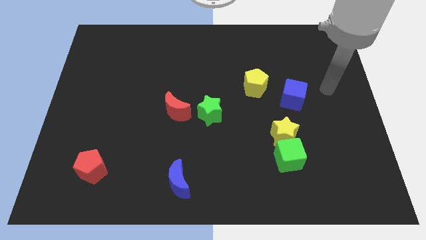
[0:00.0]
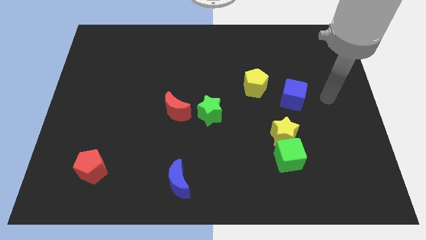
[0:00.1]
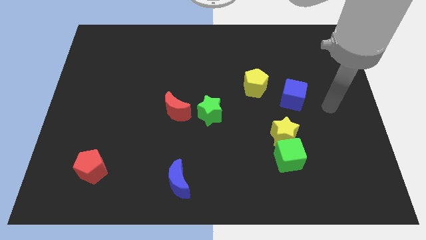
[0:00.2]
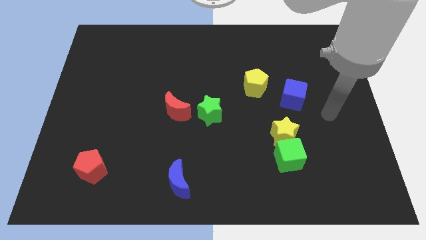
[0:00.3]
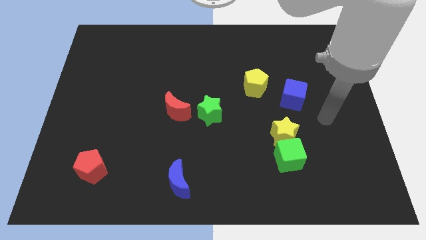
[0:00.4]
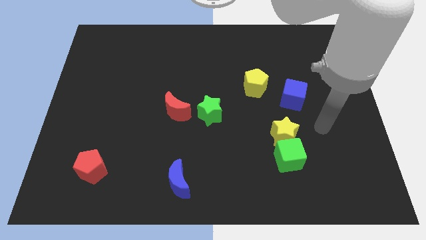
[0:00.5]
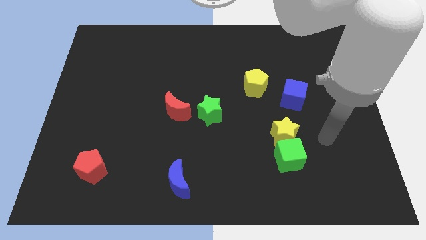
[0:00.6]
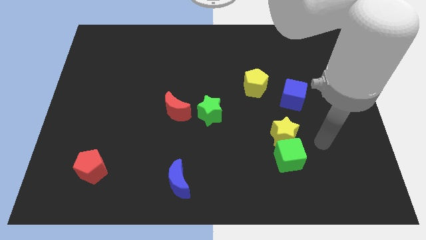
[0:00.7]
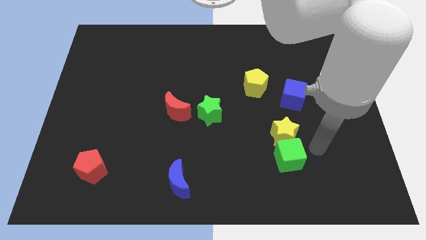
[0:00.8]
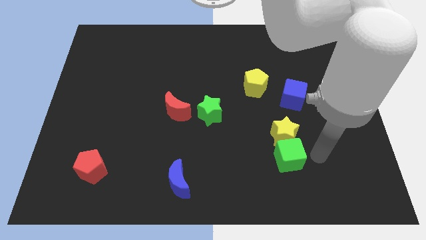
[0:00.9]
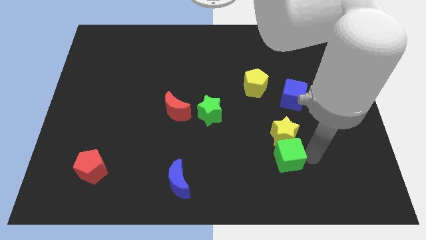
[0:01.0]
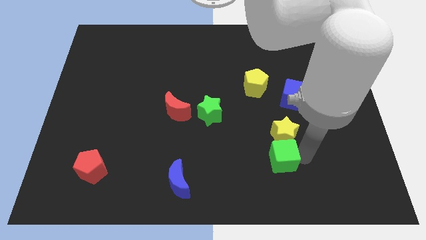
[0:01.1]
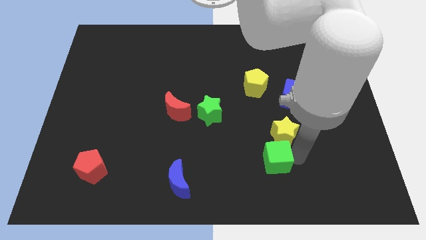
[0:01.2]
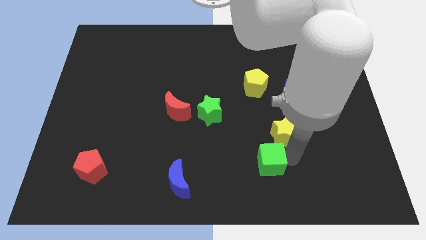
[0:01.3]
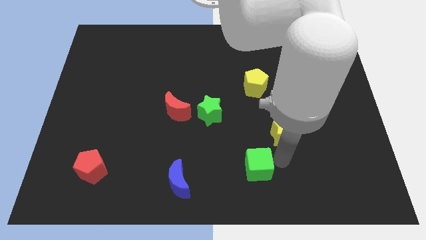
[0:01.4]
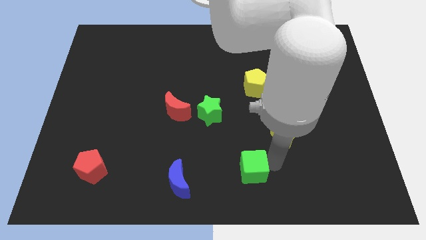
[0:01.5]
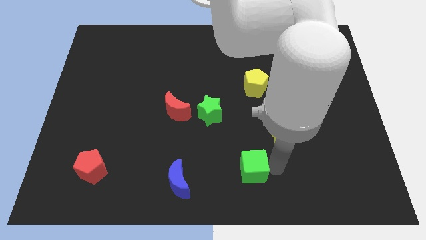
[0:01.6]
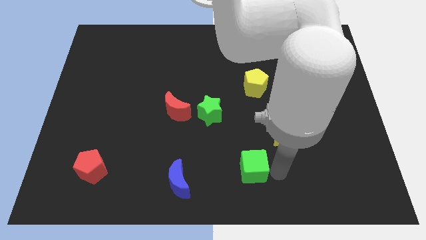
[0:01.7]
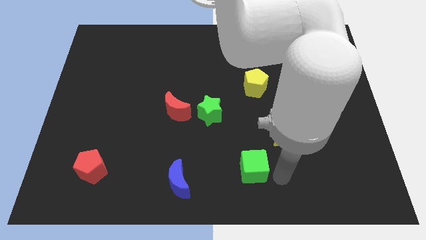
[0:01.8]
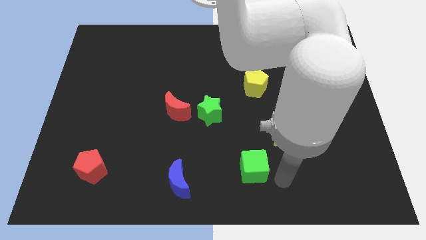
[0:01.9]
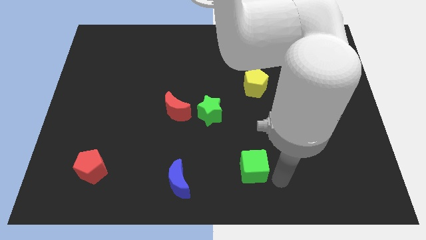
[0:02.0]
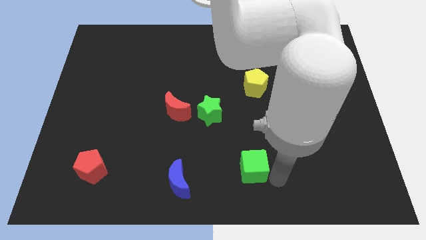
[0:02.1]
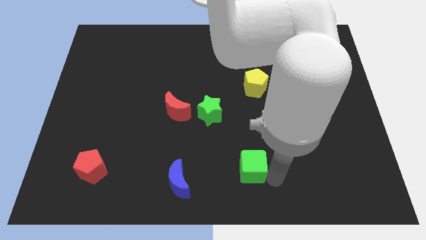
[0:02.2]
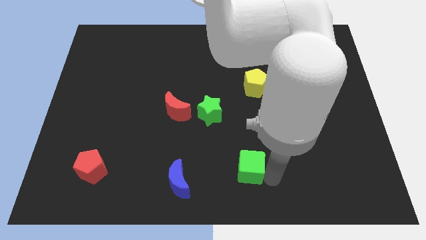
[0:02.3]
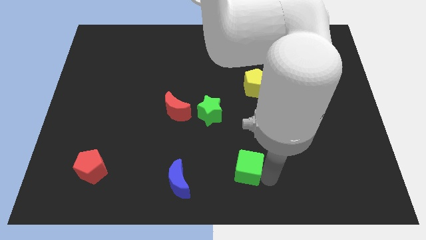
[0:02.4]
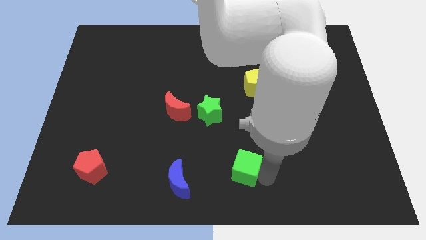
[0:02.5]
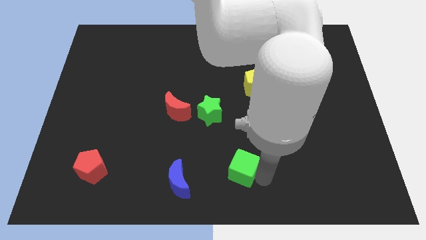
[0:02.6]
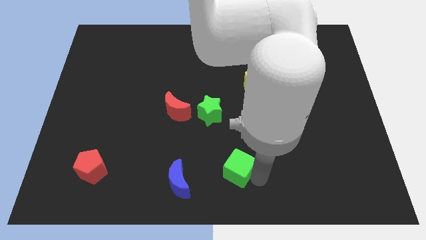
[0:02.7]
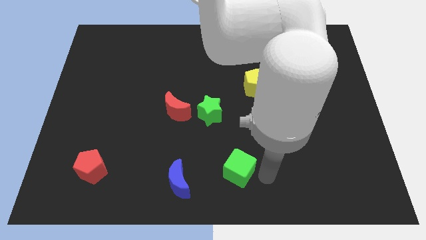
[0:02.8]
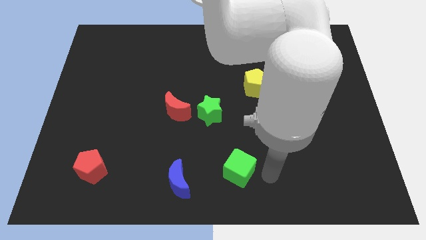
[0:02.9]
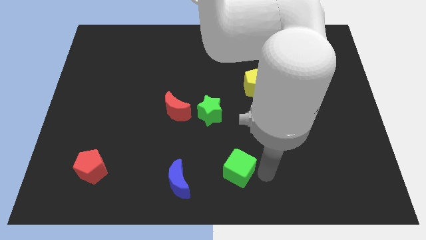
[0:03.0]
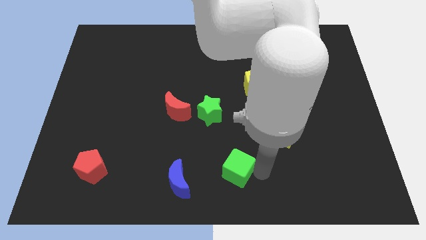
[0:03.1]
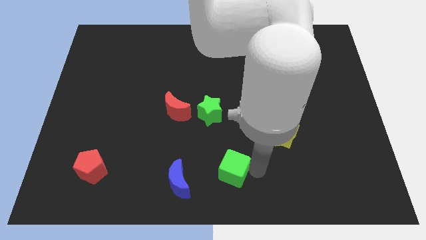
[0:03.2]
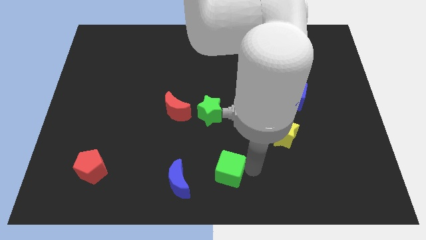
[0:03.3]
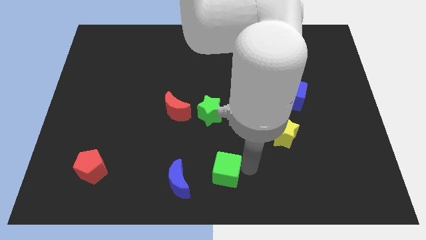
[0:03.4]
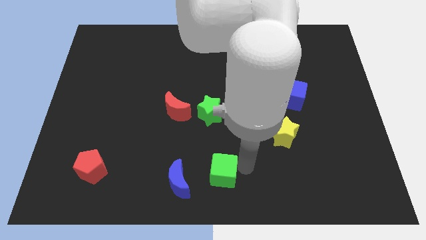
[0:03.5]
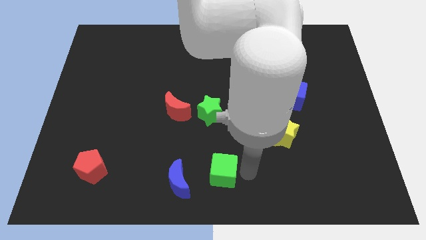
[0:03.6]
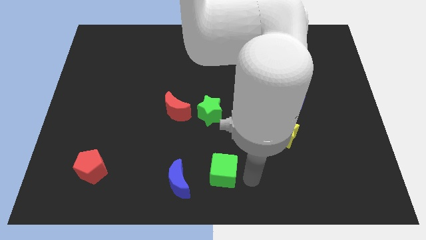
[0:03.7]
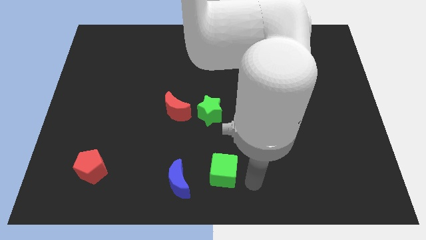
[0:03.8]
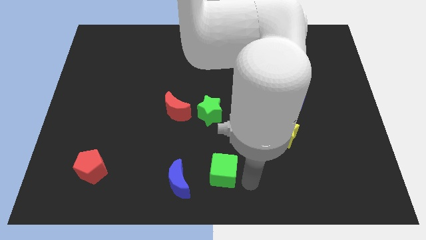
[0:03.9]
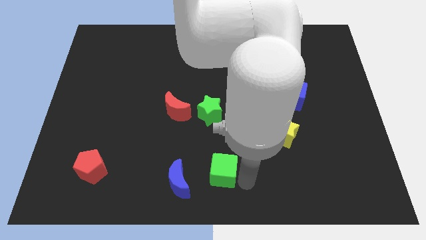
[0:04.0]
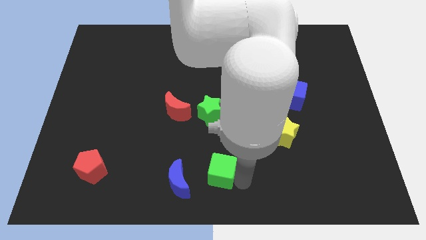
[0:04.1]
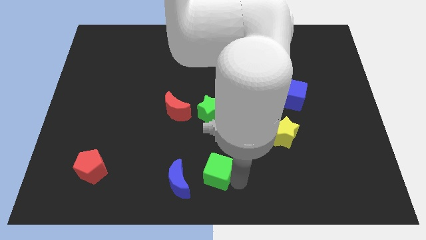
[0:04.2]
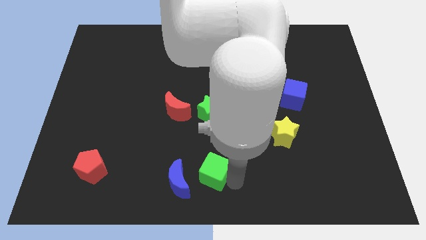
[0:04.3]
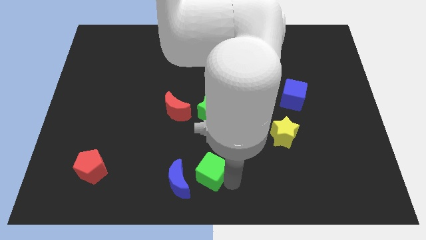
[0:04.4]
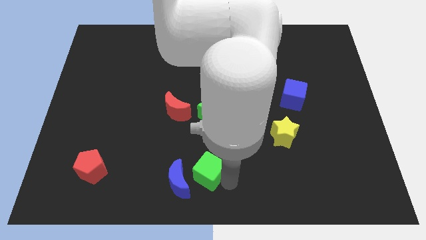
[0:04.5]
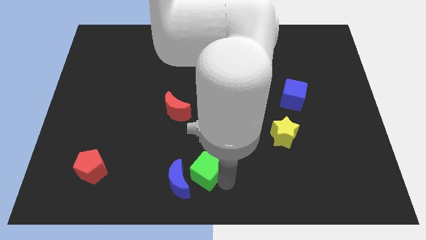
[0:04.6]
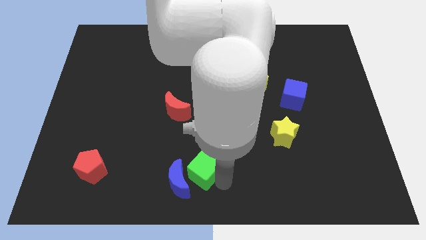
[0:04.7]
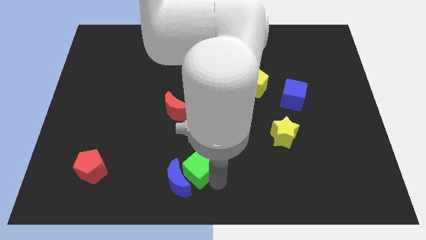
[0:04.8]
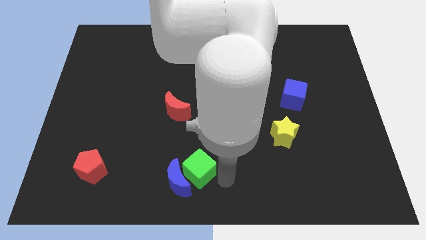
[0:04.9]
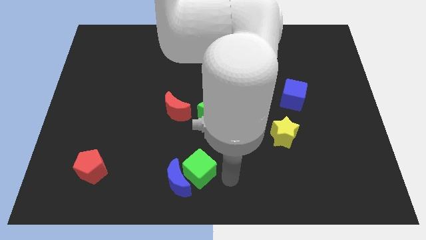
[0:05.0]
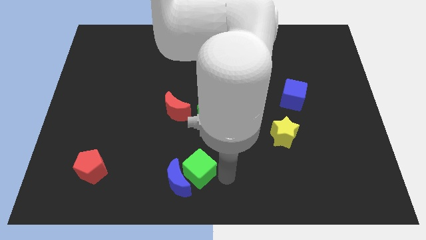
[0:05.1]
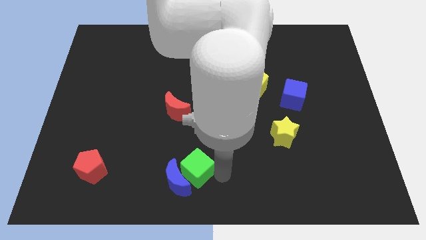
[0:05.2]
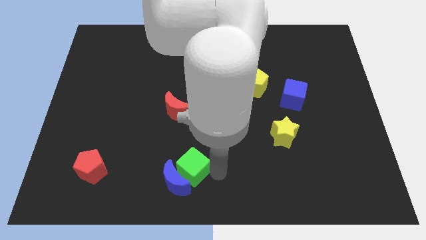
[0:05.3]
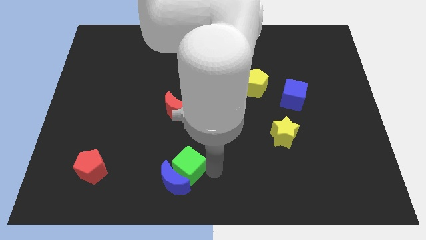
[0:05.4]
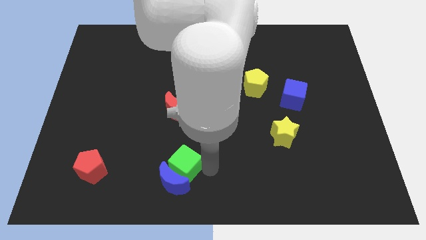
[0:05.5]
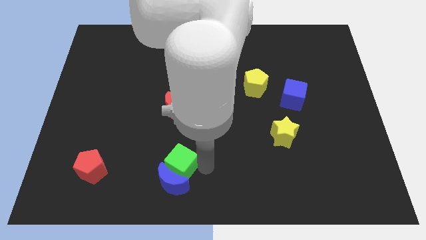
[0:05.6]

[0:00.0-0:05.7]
push the green cube diagonally up and to the left of the blue moon

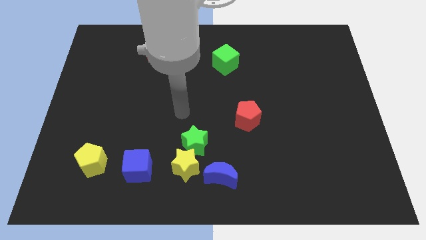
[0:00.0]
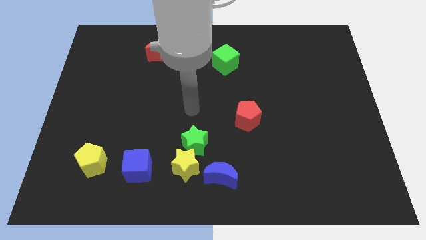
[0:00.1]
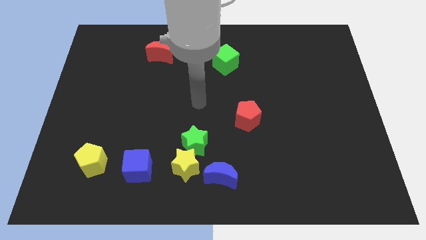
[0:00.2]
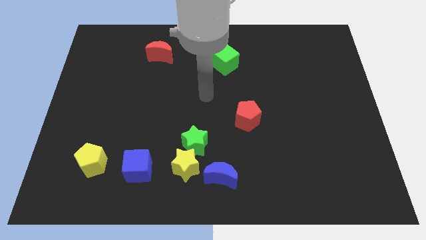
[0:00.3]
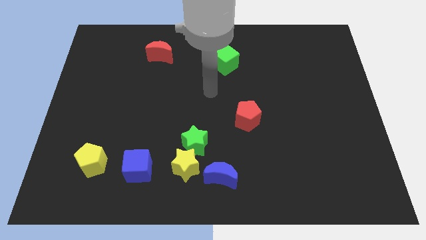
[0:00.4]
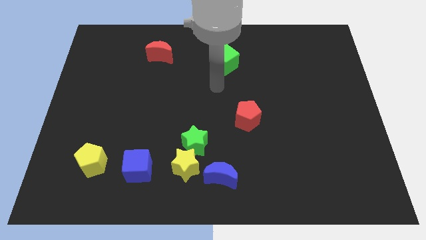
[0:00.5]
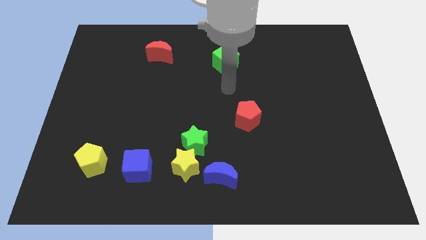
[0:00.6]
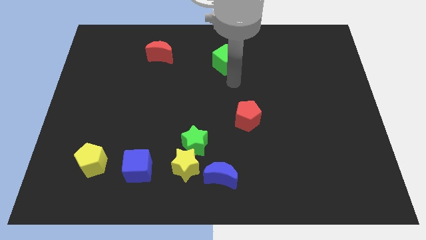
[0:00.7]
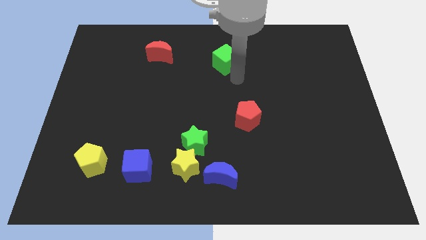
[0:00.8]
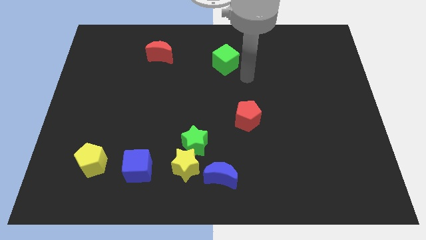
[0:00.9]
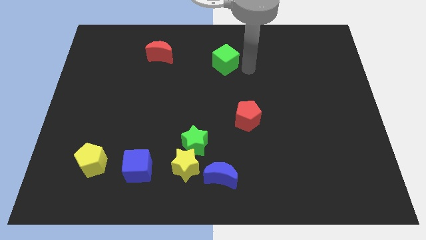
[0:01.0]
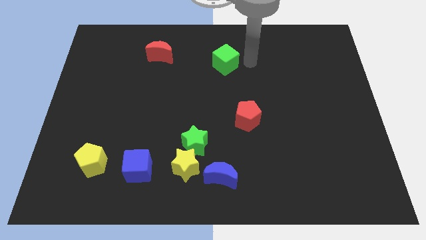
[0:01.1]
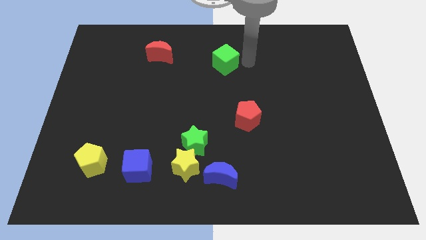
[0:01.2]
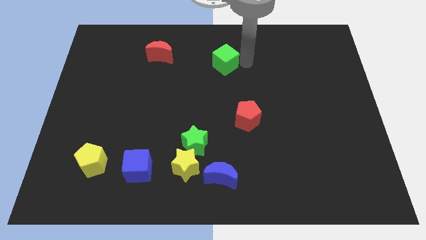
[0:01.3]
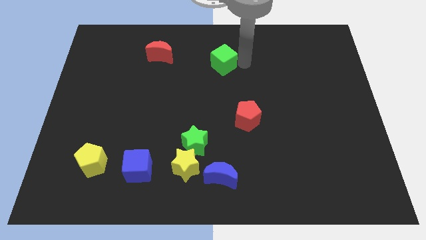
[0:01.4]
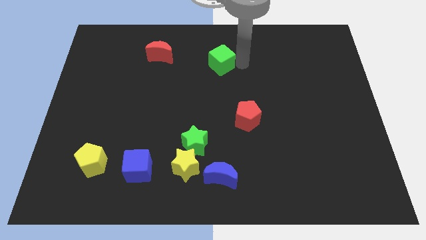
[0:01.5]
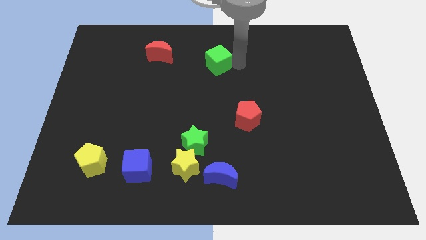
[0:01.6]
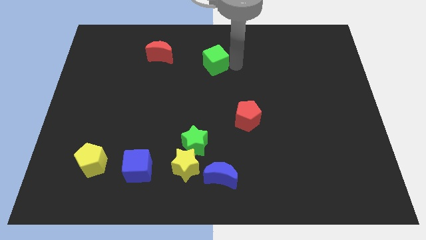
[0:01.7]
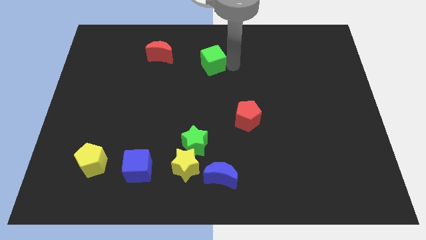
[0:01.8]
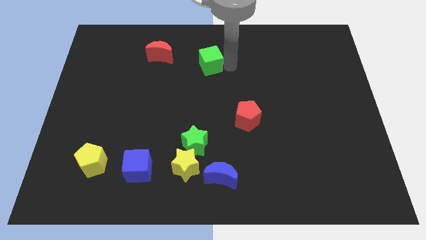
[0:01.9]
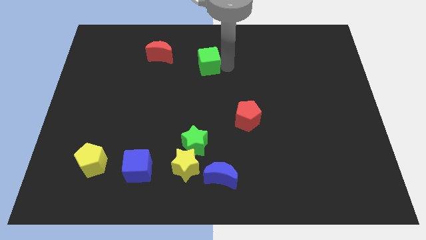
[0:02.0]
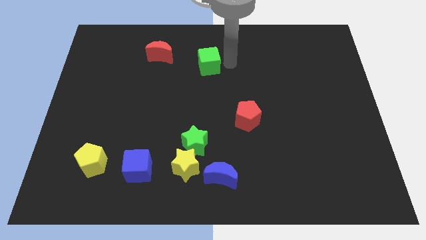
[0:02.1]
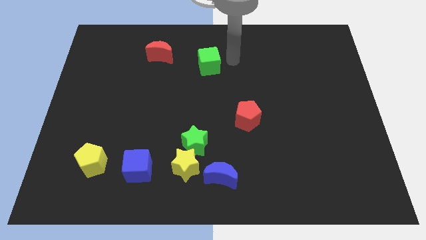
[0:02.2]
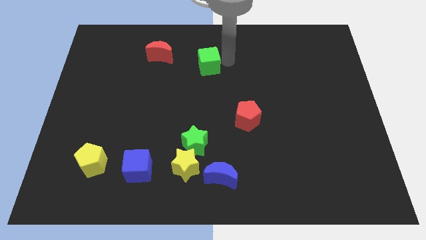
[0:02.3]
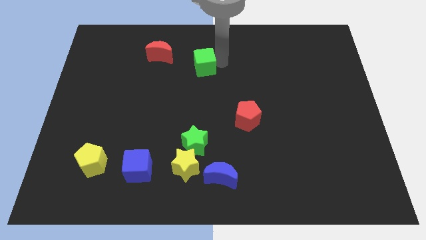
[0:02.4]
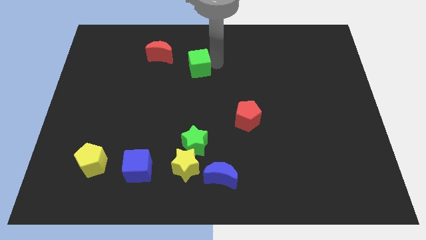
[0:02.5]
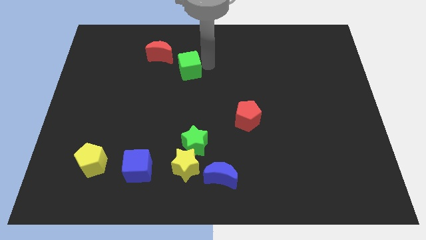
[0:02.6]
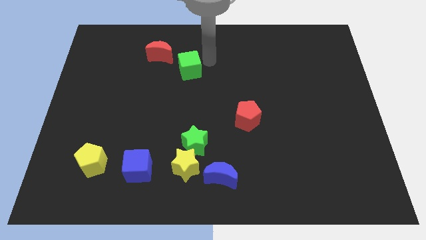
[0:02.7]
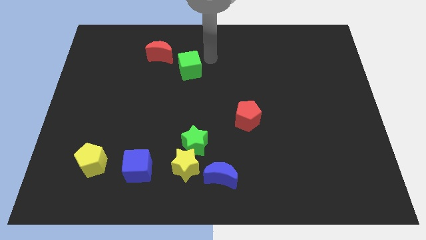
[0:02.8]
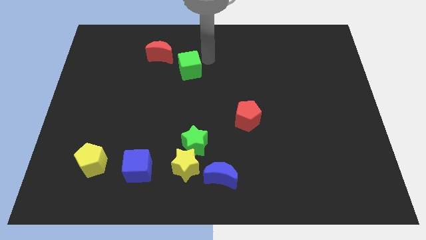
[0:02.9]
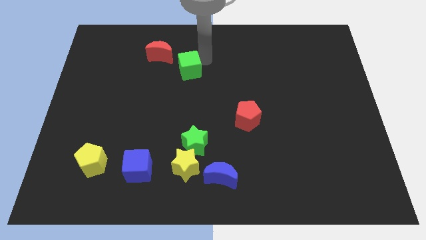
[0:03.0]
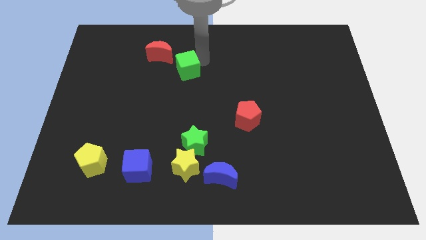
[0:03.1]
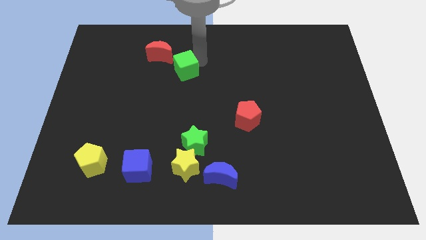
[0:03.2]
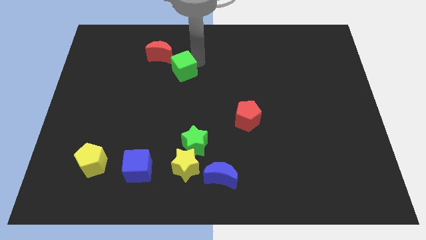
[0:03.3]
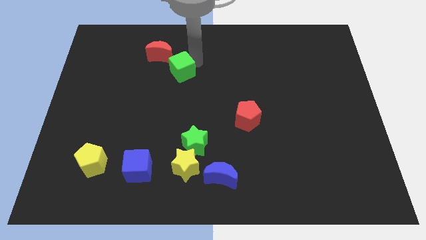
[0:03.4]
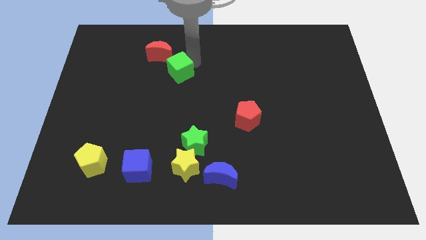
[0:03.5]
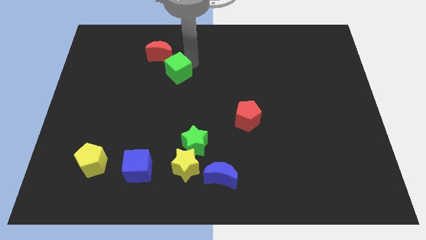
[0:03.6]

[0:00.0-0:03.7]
slide the green cube below the red moon
